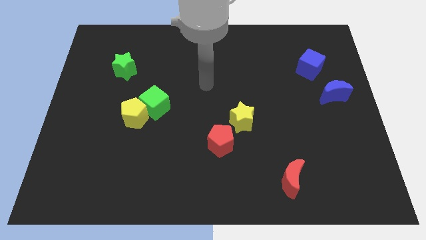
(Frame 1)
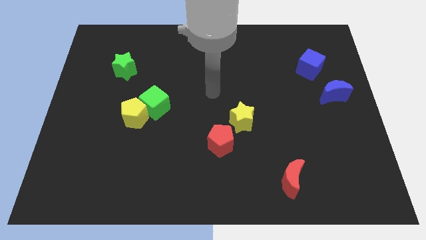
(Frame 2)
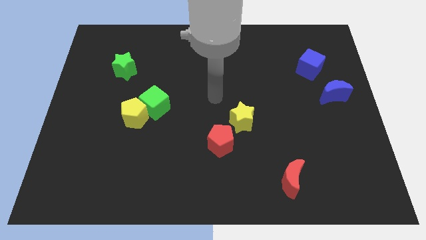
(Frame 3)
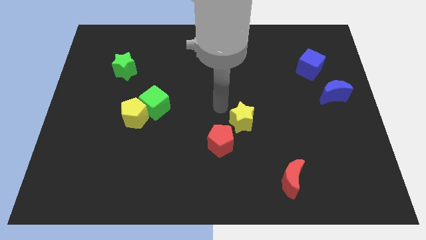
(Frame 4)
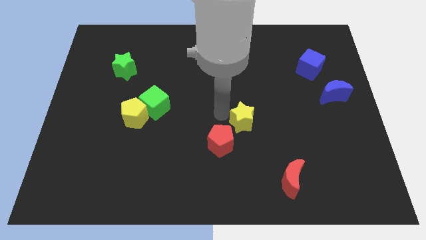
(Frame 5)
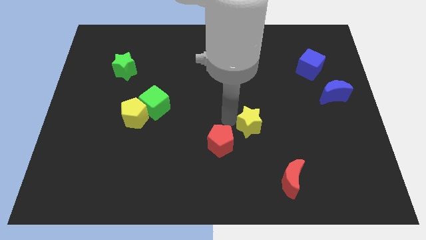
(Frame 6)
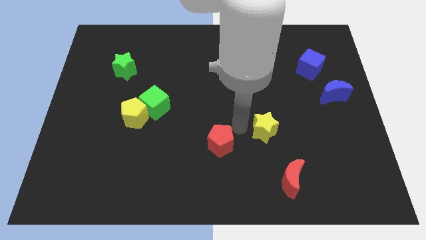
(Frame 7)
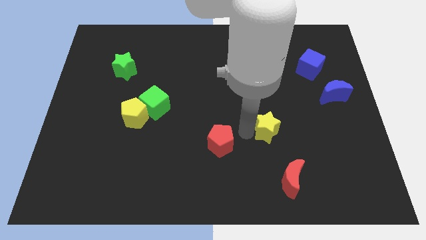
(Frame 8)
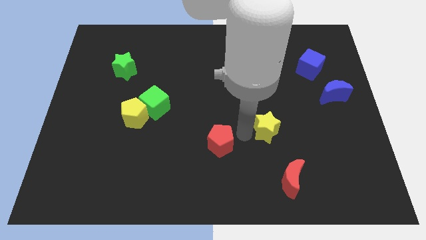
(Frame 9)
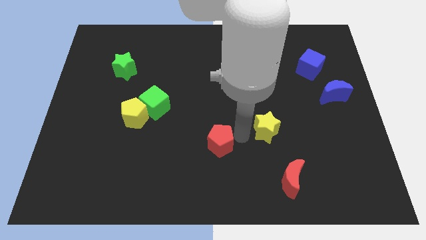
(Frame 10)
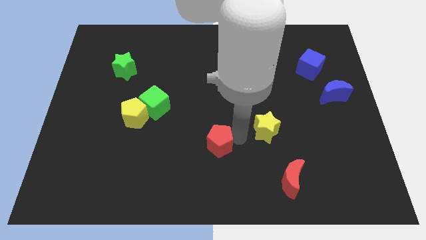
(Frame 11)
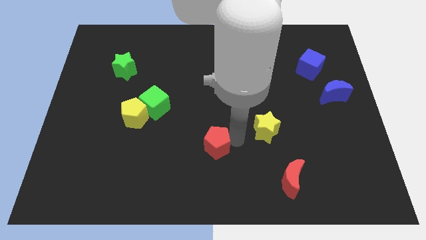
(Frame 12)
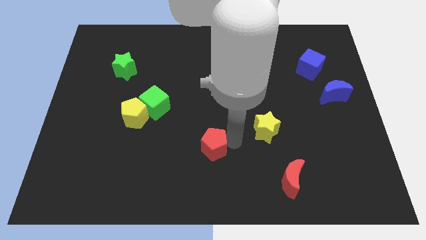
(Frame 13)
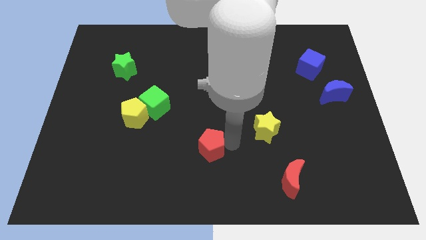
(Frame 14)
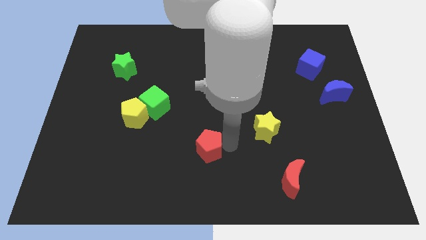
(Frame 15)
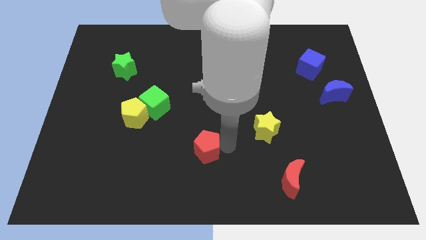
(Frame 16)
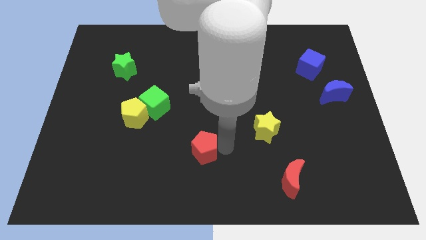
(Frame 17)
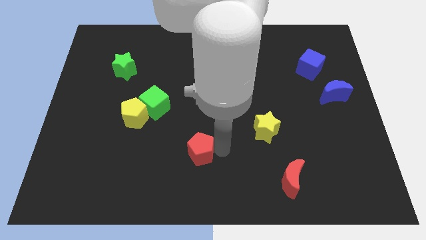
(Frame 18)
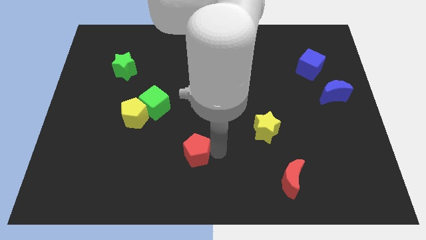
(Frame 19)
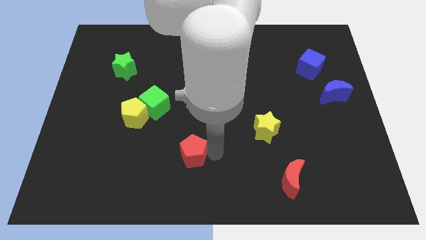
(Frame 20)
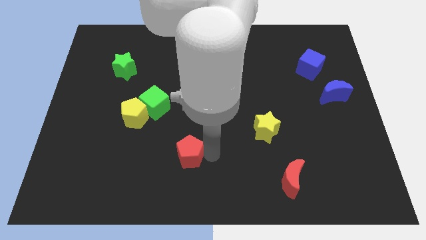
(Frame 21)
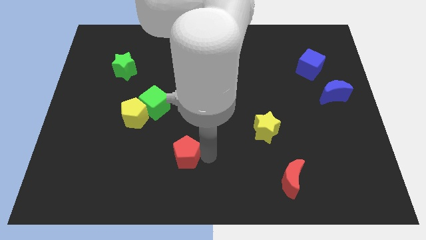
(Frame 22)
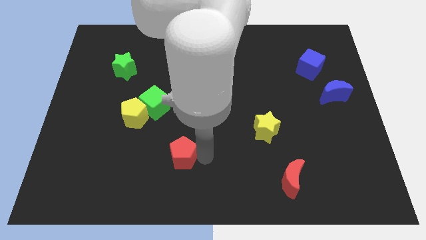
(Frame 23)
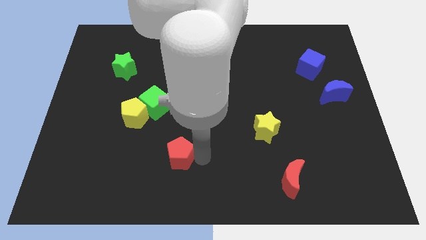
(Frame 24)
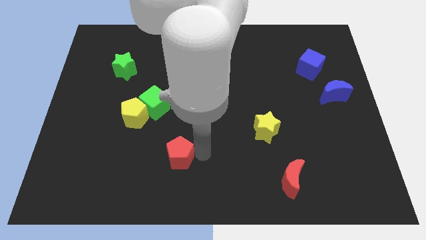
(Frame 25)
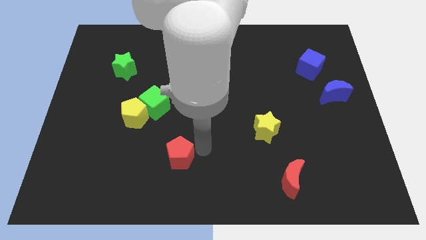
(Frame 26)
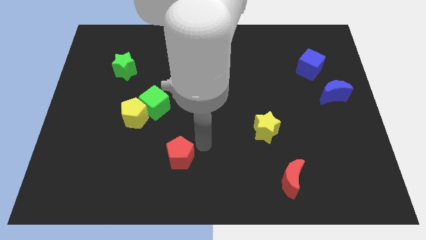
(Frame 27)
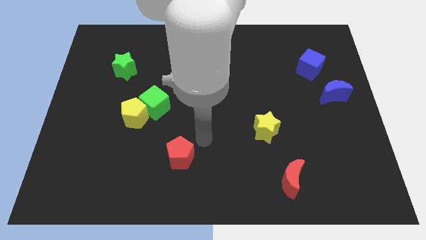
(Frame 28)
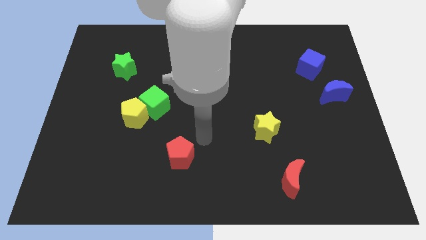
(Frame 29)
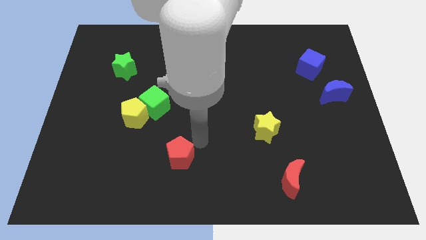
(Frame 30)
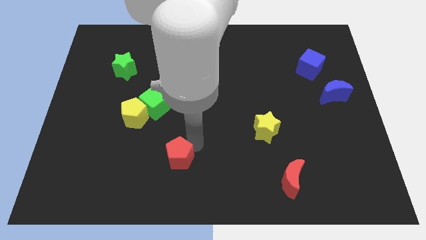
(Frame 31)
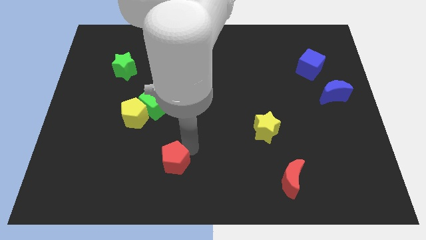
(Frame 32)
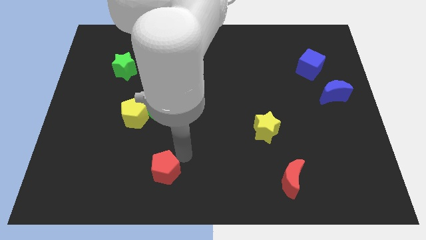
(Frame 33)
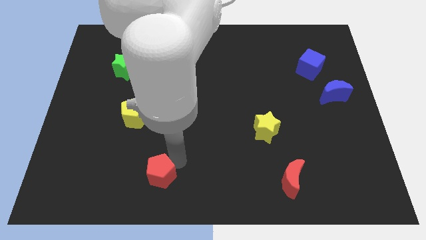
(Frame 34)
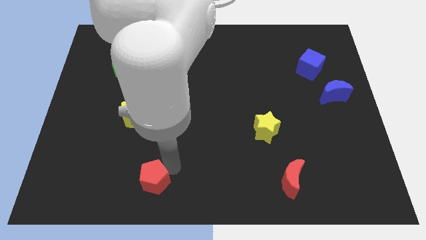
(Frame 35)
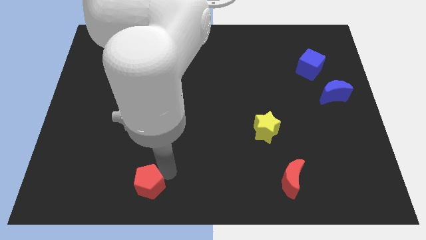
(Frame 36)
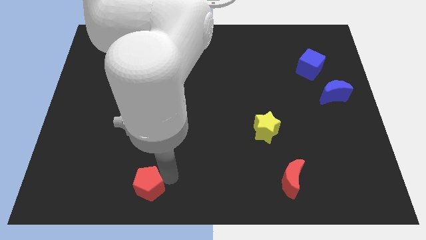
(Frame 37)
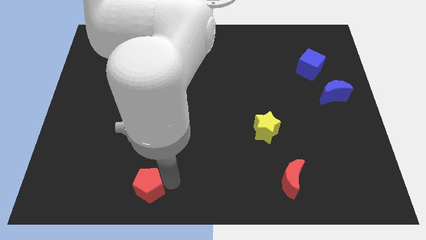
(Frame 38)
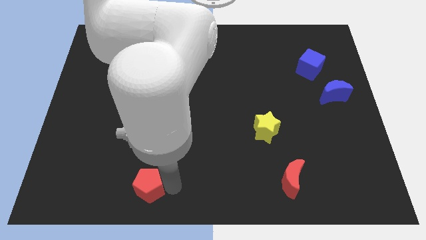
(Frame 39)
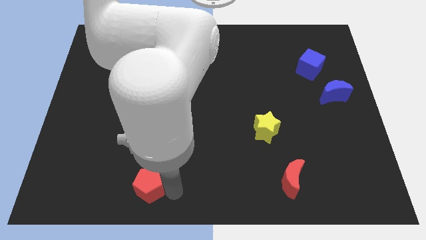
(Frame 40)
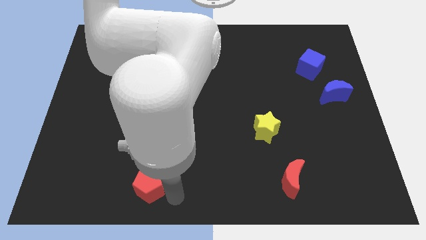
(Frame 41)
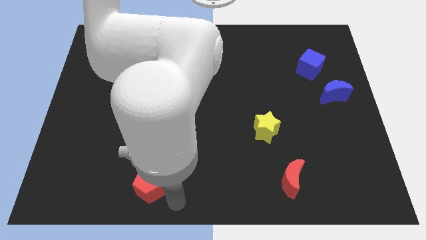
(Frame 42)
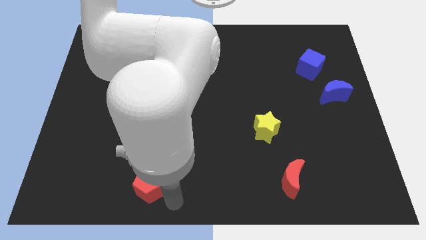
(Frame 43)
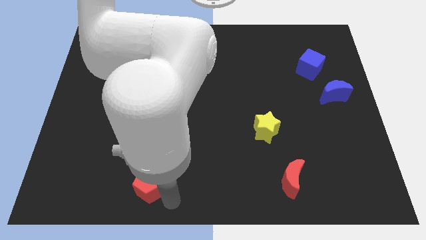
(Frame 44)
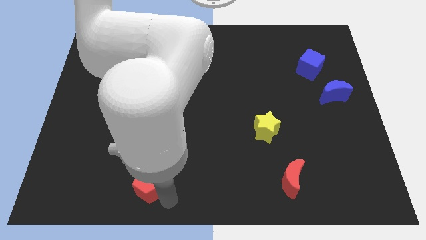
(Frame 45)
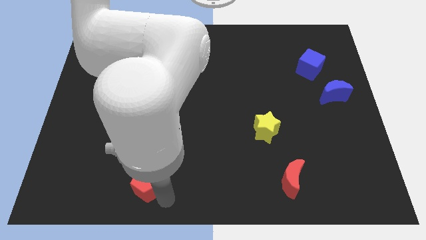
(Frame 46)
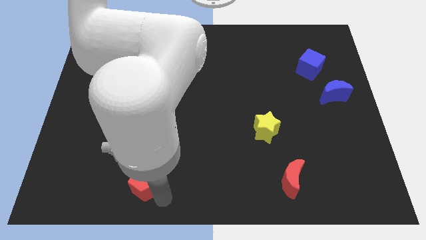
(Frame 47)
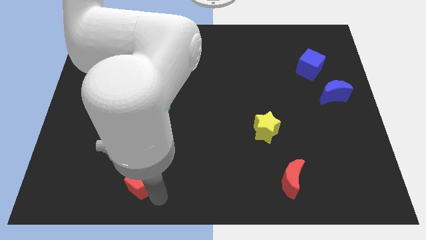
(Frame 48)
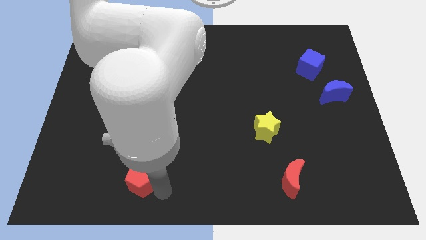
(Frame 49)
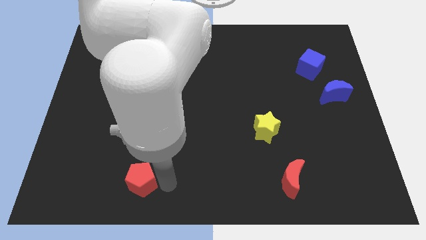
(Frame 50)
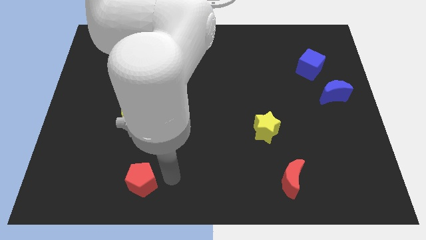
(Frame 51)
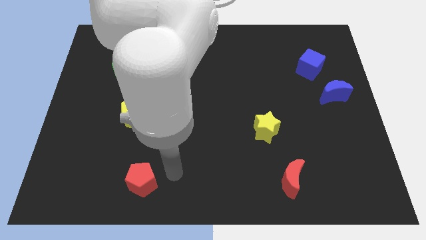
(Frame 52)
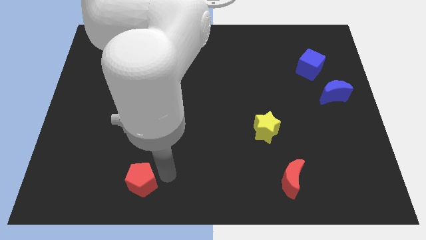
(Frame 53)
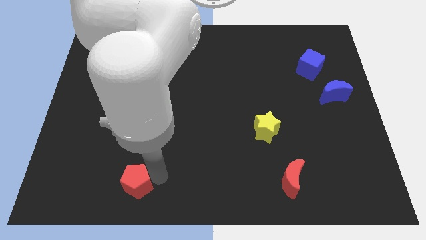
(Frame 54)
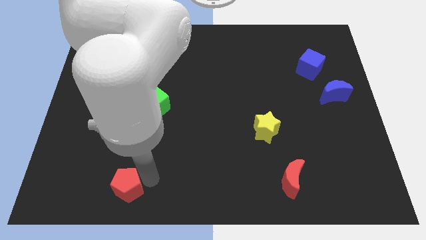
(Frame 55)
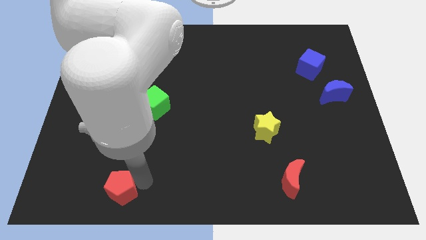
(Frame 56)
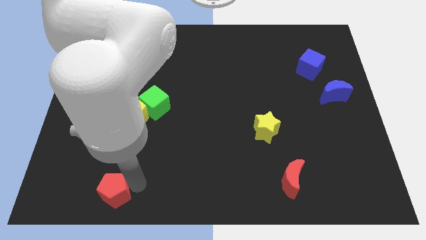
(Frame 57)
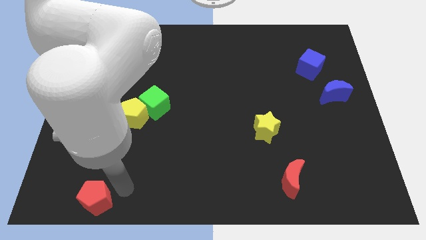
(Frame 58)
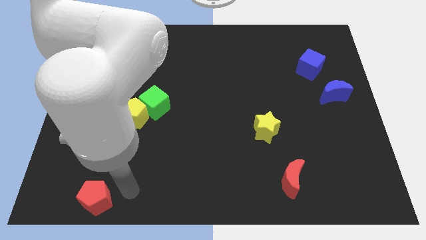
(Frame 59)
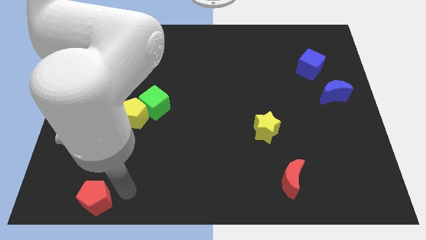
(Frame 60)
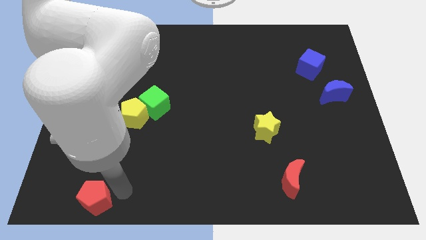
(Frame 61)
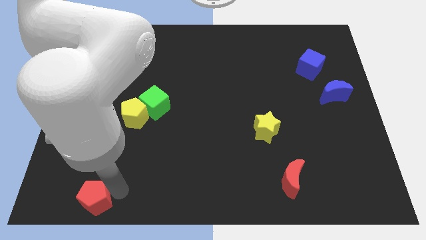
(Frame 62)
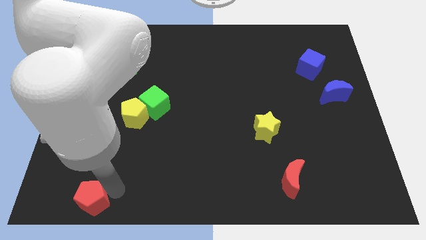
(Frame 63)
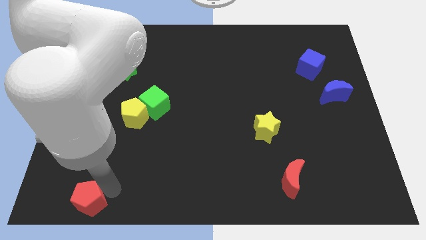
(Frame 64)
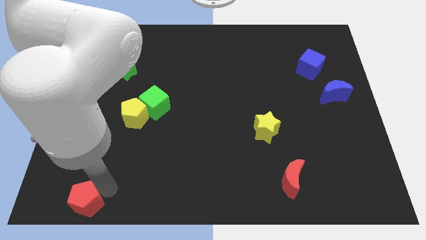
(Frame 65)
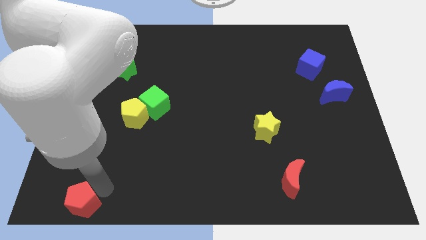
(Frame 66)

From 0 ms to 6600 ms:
put the red pentagon to the bottom left corner
